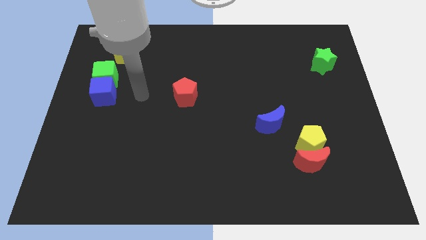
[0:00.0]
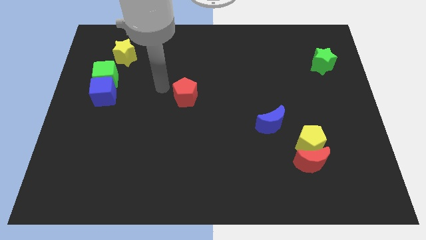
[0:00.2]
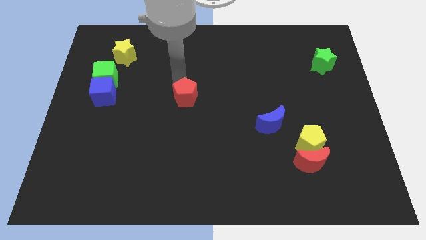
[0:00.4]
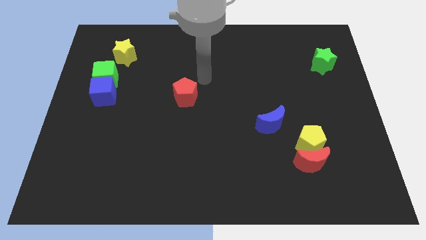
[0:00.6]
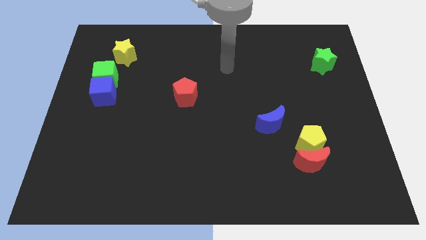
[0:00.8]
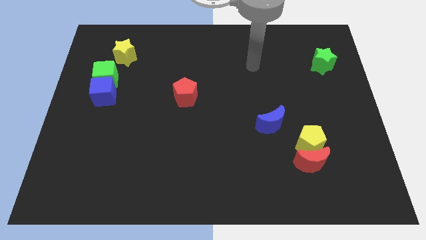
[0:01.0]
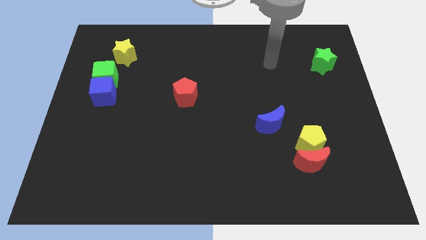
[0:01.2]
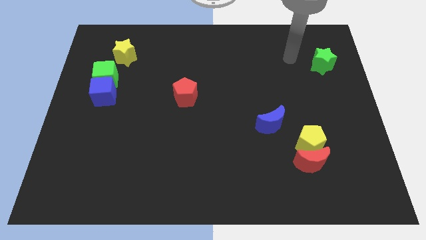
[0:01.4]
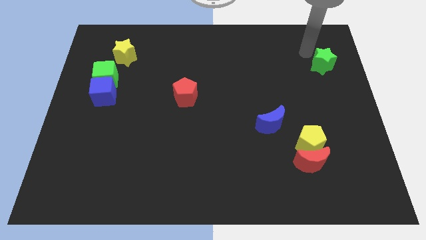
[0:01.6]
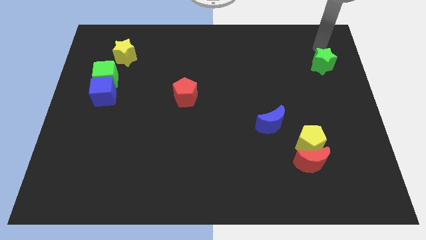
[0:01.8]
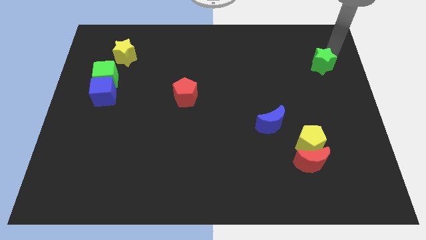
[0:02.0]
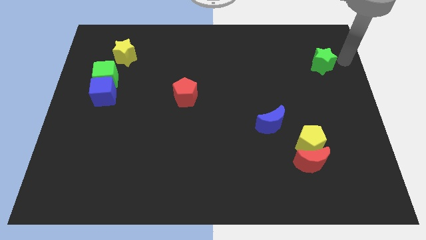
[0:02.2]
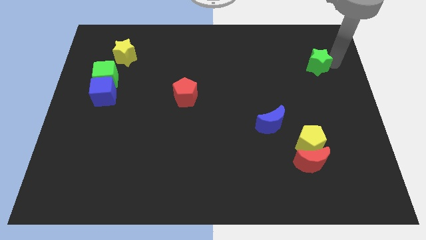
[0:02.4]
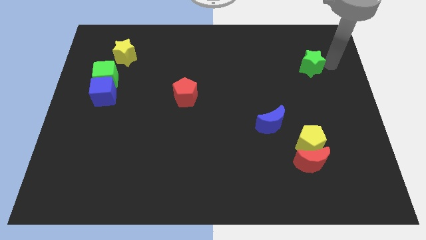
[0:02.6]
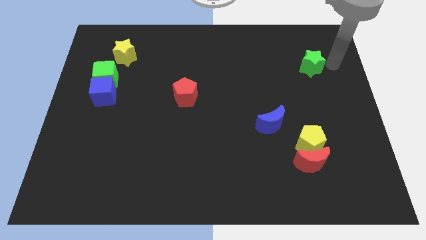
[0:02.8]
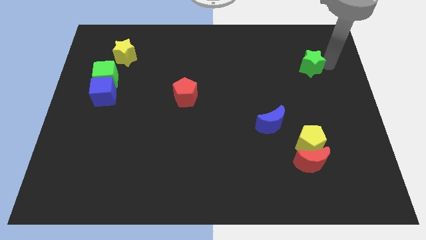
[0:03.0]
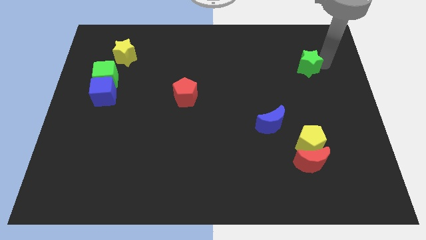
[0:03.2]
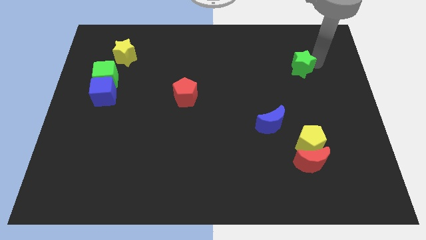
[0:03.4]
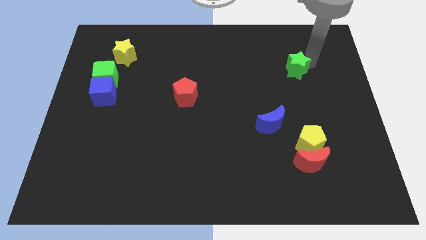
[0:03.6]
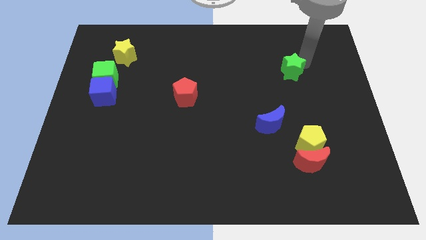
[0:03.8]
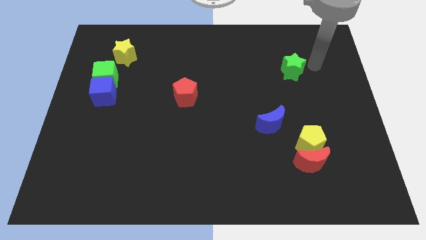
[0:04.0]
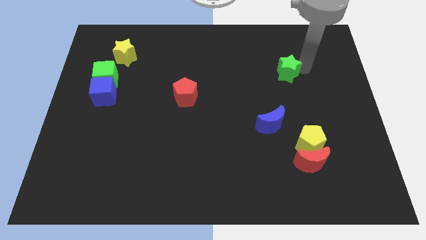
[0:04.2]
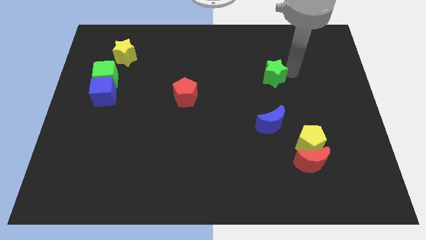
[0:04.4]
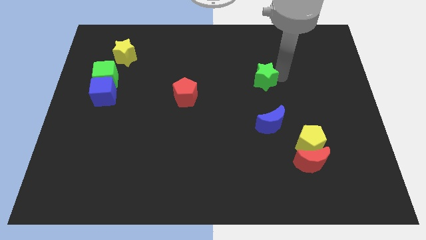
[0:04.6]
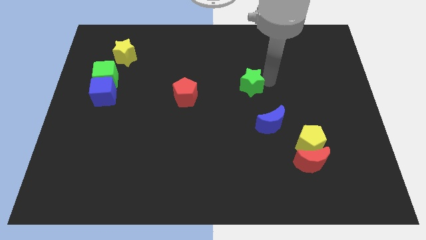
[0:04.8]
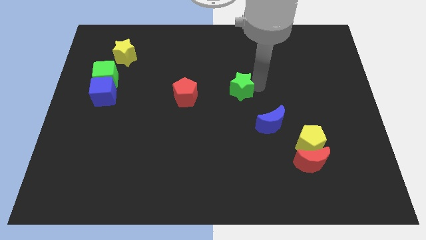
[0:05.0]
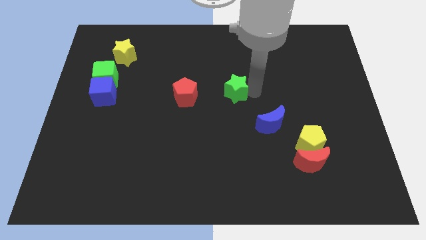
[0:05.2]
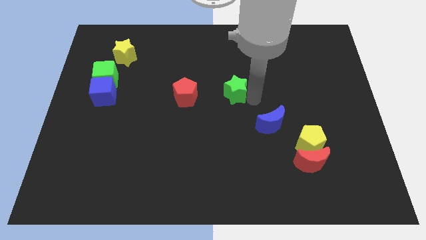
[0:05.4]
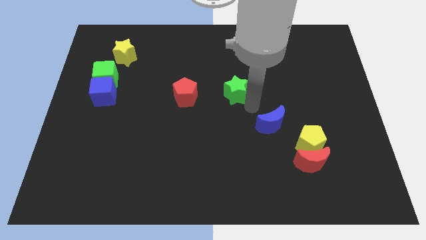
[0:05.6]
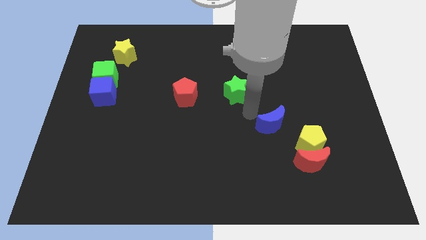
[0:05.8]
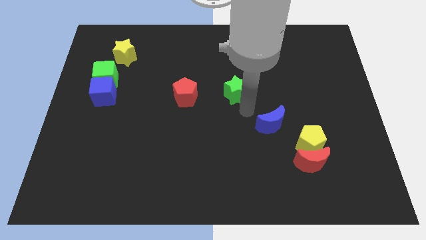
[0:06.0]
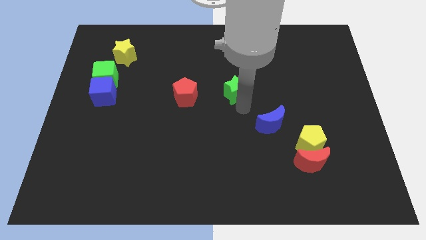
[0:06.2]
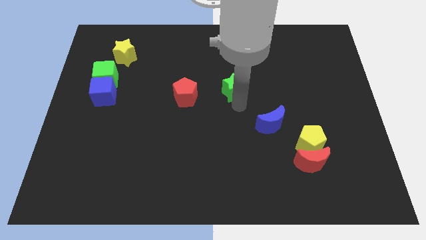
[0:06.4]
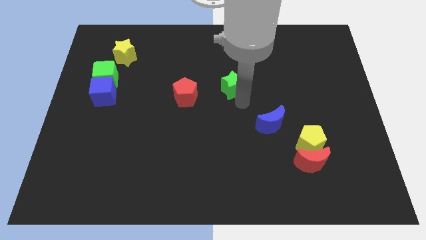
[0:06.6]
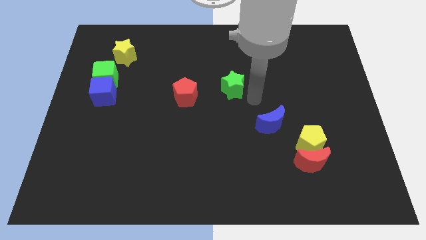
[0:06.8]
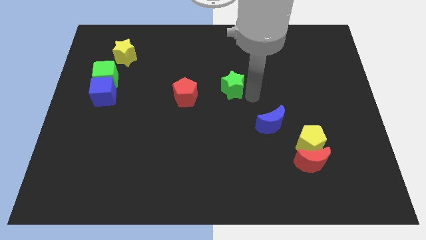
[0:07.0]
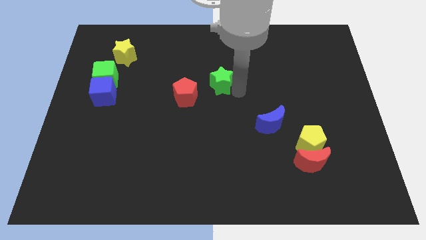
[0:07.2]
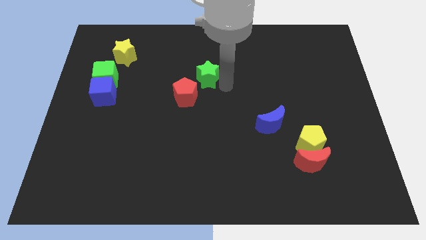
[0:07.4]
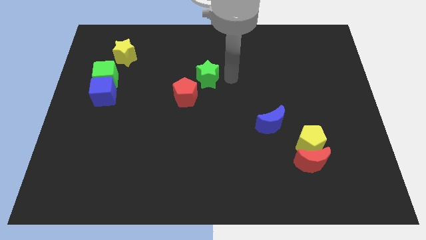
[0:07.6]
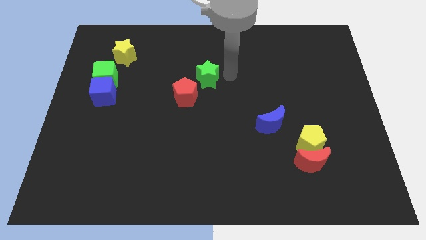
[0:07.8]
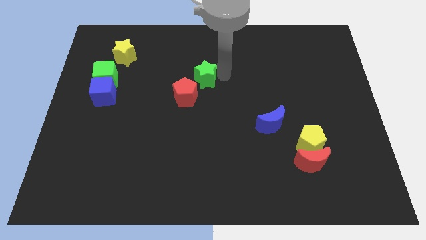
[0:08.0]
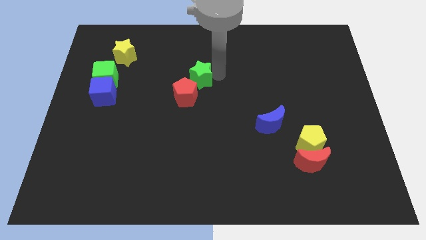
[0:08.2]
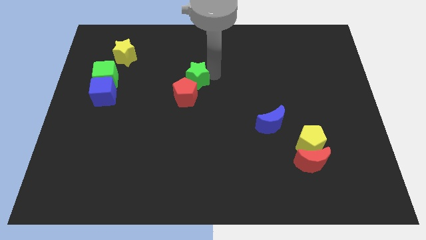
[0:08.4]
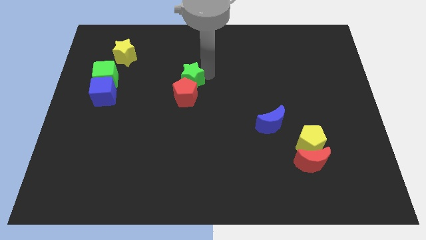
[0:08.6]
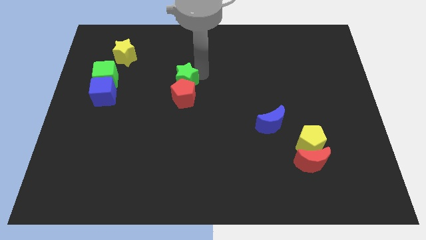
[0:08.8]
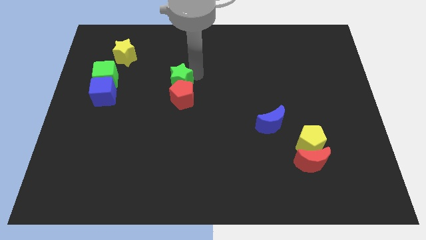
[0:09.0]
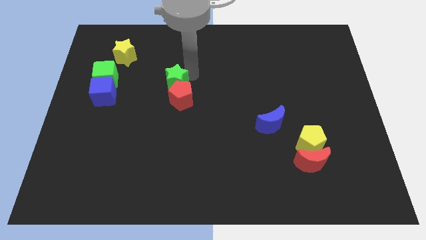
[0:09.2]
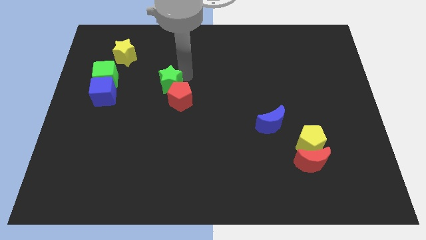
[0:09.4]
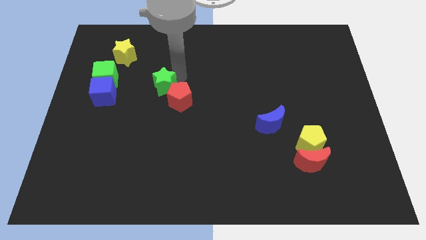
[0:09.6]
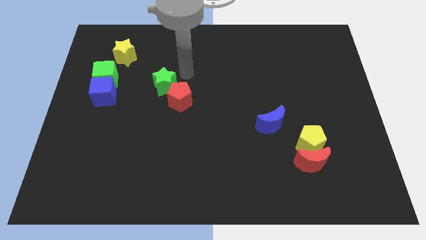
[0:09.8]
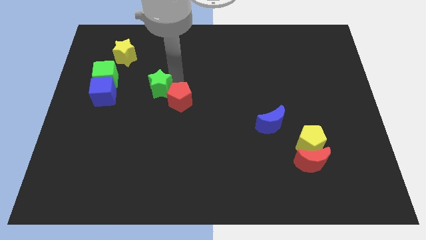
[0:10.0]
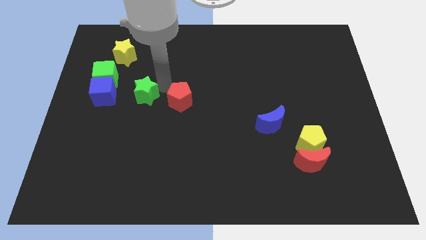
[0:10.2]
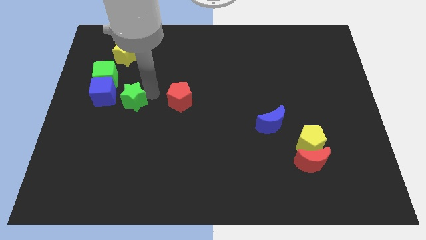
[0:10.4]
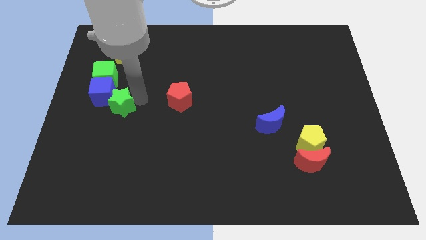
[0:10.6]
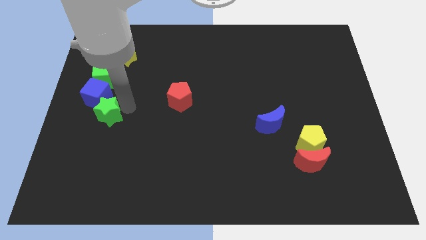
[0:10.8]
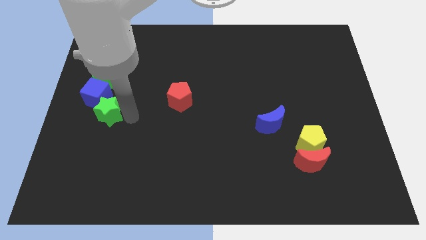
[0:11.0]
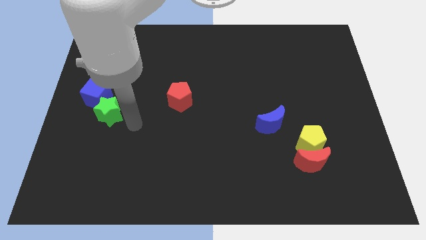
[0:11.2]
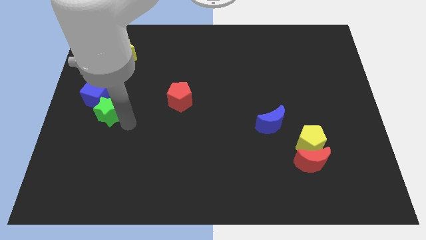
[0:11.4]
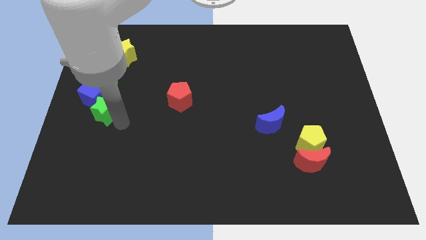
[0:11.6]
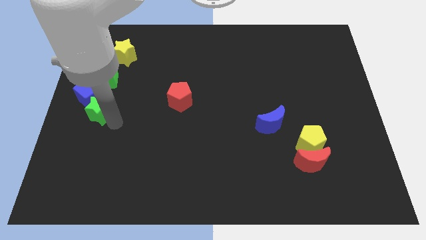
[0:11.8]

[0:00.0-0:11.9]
push the green star to the left side of the board

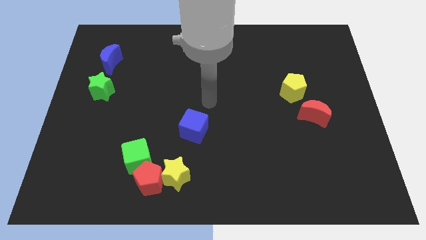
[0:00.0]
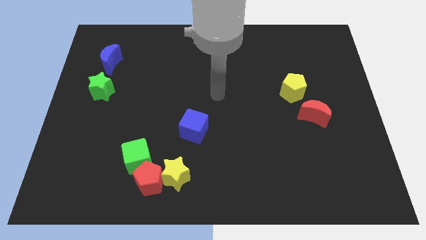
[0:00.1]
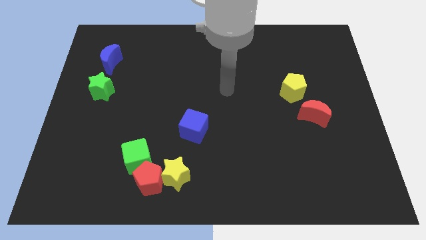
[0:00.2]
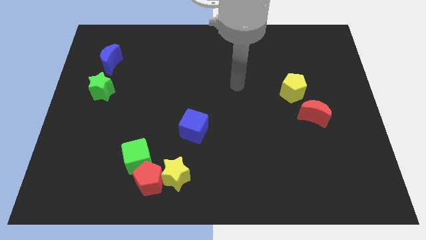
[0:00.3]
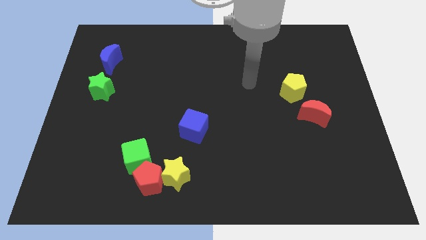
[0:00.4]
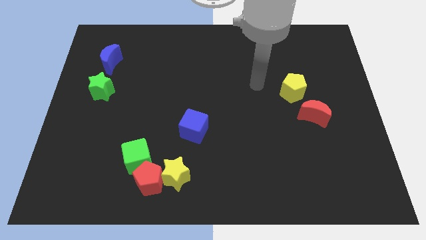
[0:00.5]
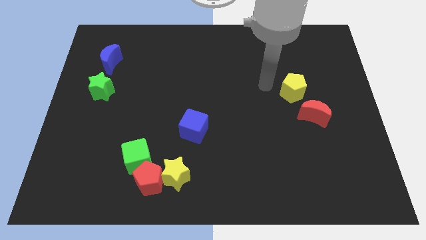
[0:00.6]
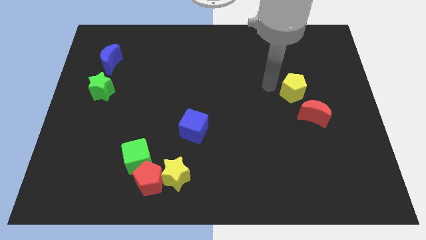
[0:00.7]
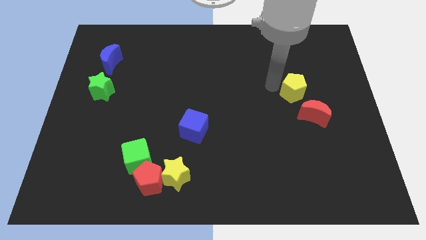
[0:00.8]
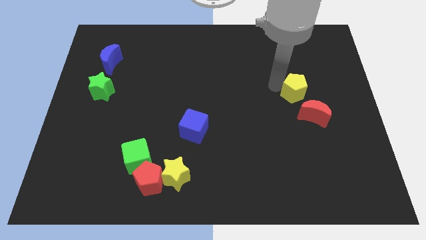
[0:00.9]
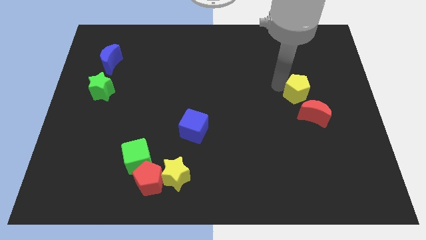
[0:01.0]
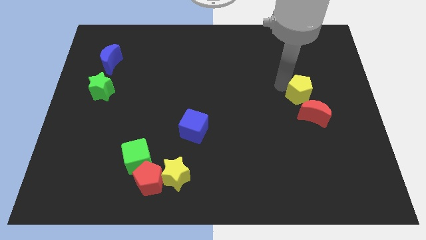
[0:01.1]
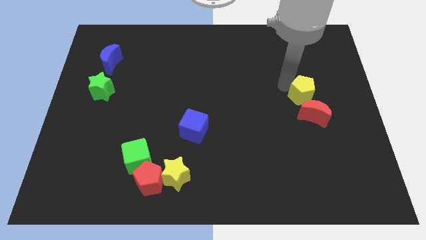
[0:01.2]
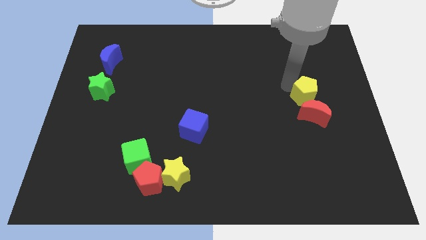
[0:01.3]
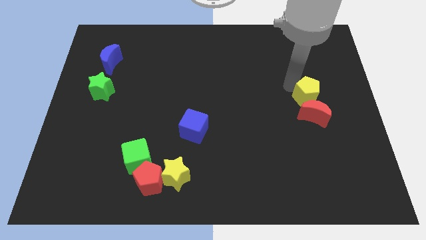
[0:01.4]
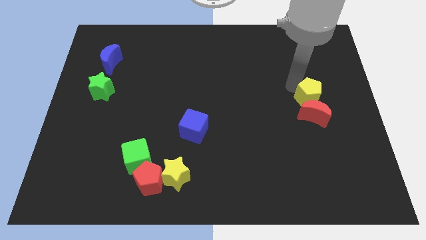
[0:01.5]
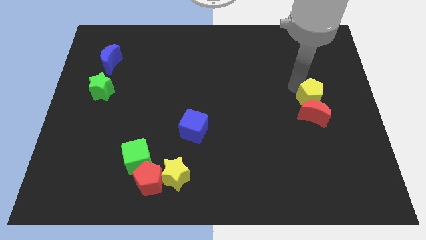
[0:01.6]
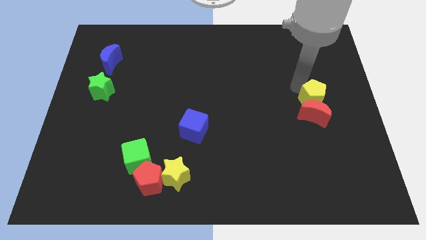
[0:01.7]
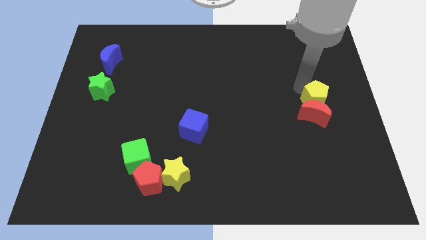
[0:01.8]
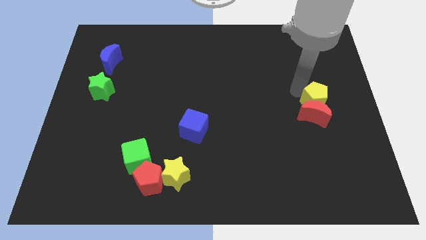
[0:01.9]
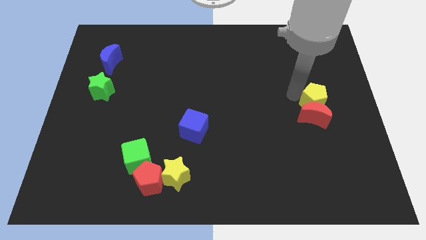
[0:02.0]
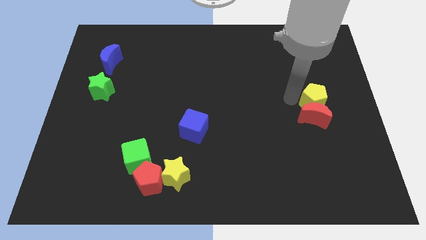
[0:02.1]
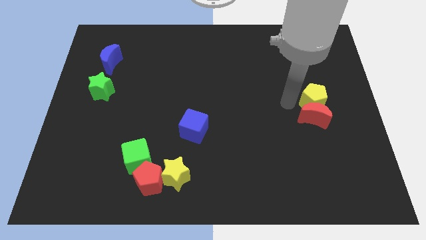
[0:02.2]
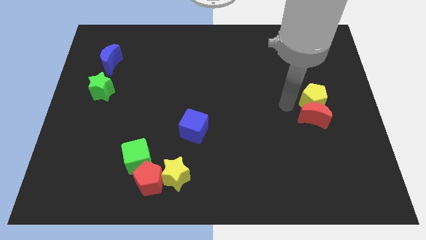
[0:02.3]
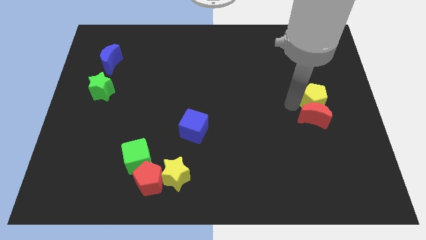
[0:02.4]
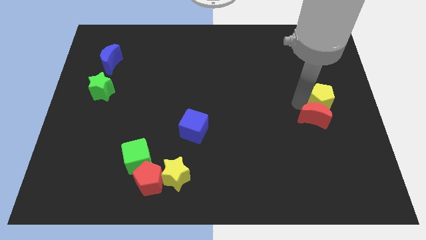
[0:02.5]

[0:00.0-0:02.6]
slide the yellow pentagon to the right side of the board
